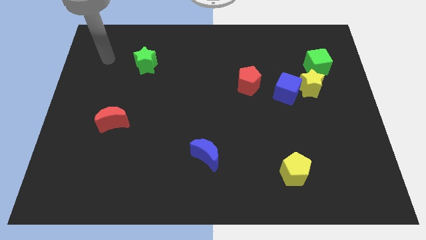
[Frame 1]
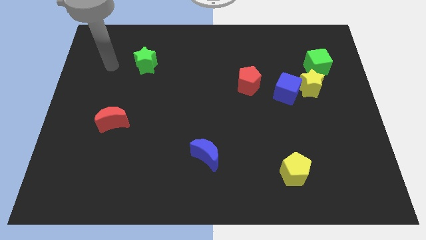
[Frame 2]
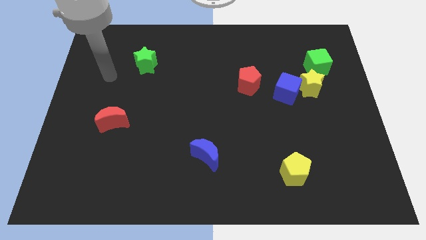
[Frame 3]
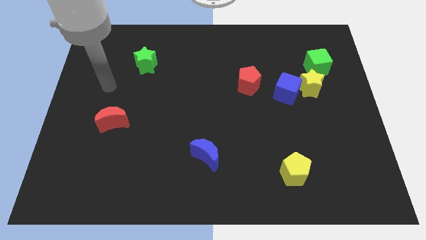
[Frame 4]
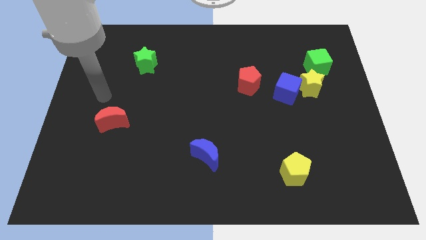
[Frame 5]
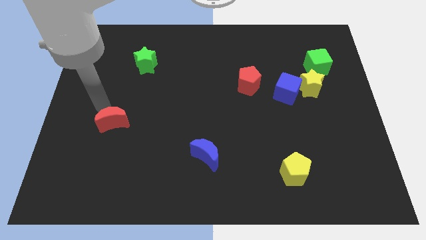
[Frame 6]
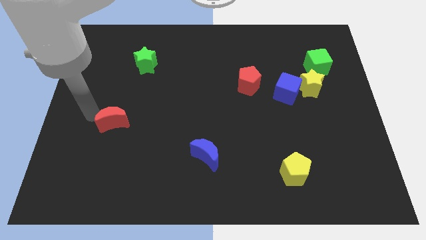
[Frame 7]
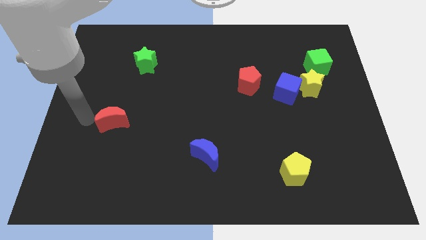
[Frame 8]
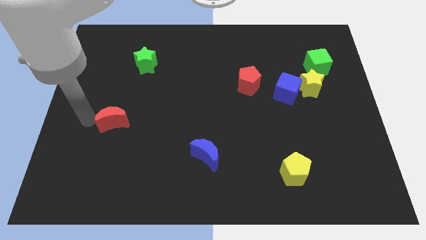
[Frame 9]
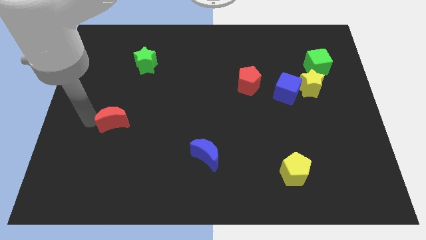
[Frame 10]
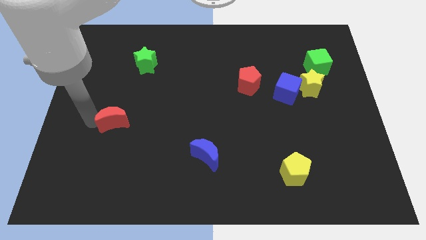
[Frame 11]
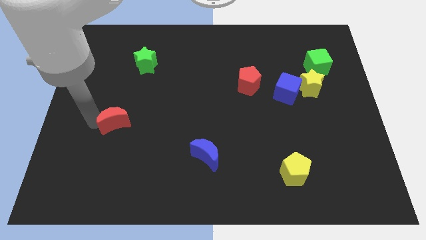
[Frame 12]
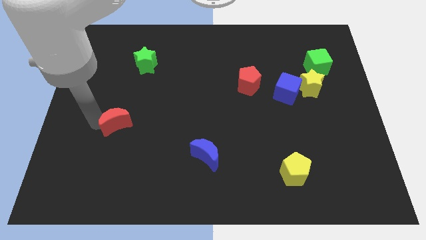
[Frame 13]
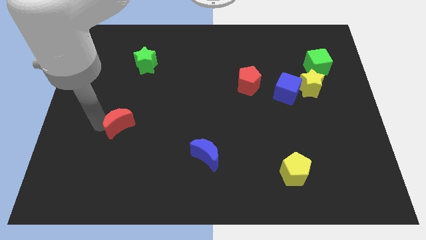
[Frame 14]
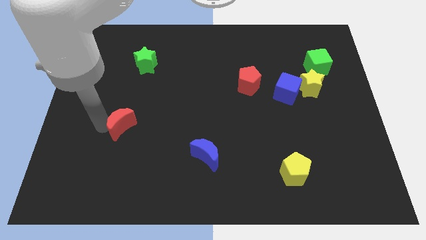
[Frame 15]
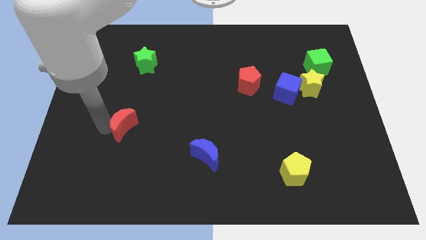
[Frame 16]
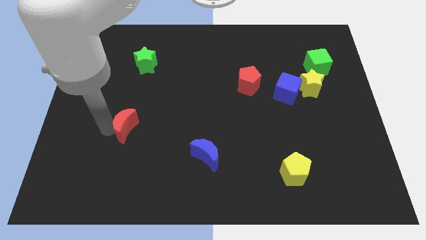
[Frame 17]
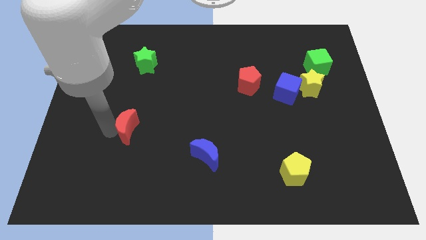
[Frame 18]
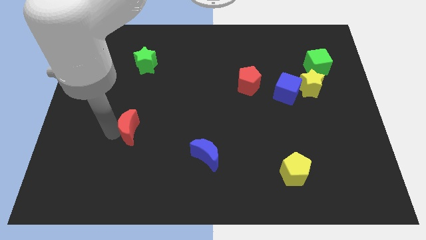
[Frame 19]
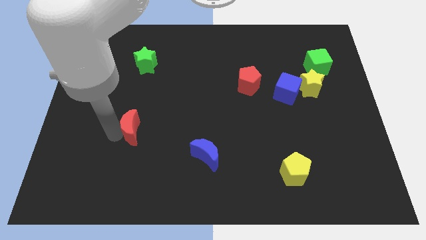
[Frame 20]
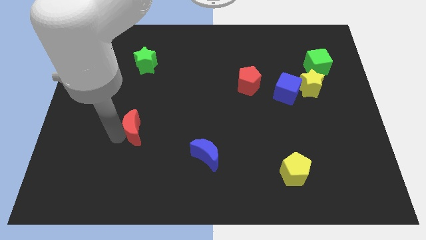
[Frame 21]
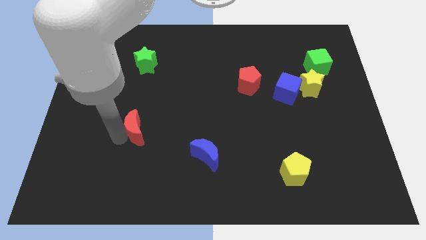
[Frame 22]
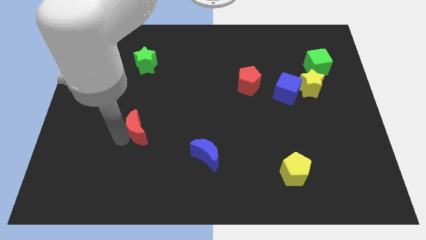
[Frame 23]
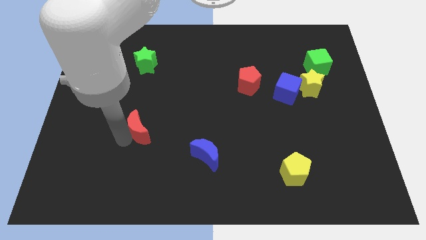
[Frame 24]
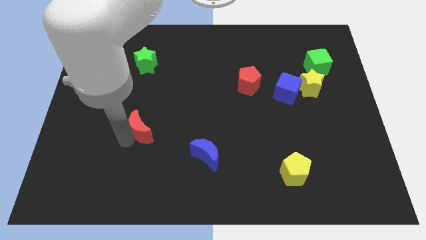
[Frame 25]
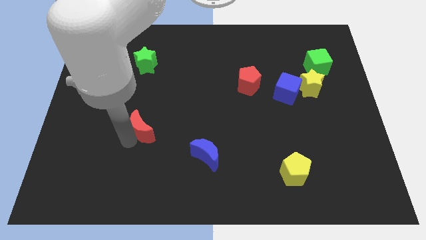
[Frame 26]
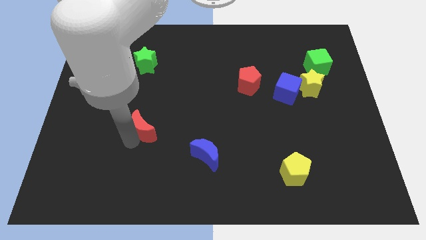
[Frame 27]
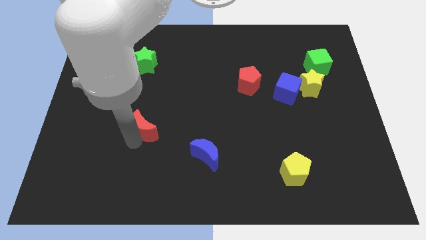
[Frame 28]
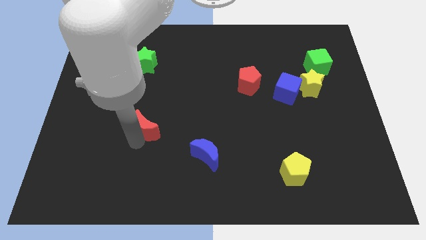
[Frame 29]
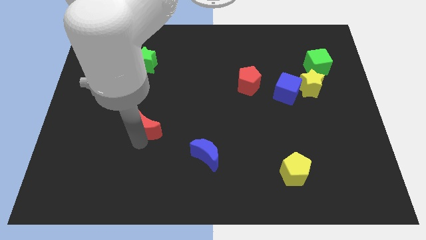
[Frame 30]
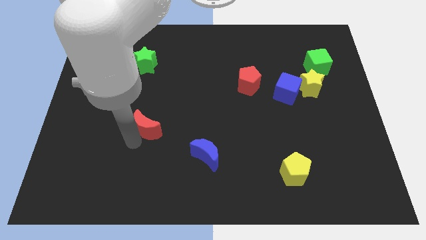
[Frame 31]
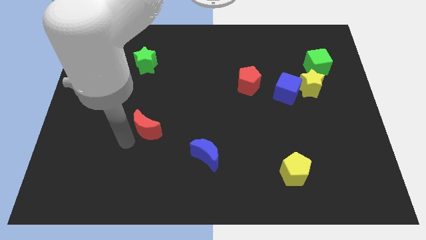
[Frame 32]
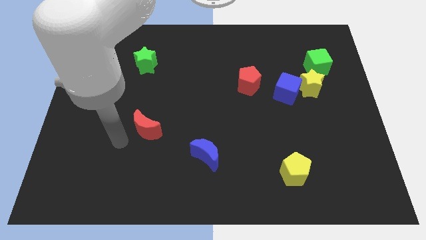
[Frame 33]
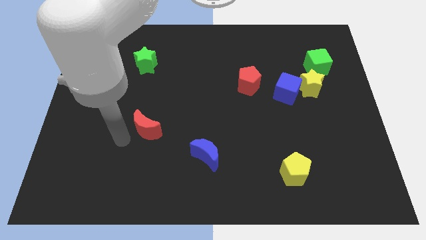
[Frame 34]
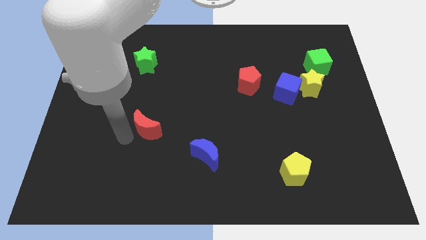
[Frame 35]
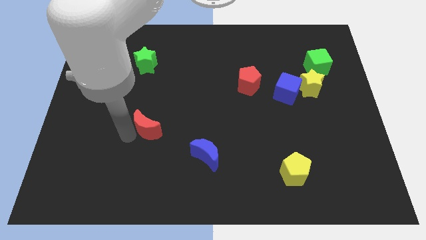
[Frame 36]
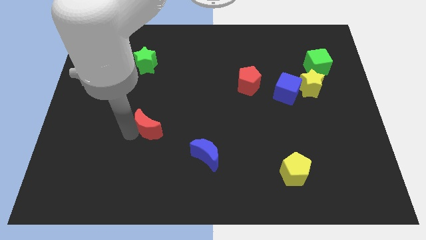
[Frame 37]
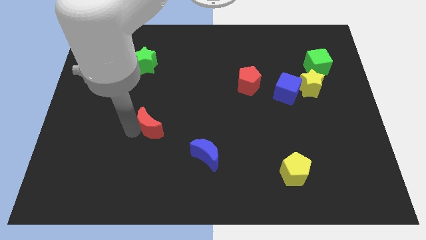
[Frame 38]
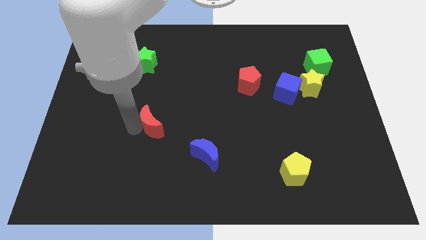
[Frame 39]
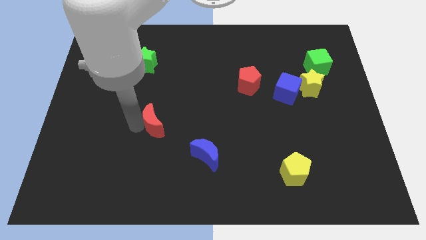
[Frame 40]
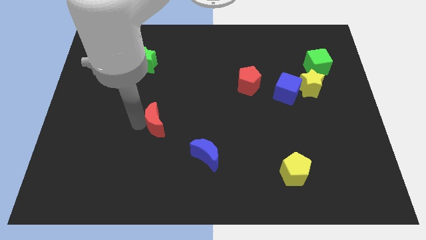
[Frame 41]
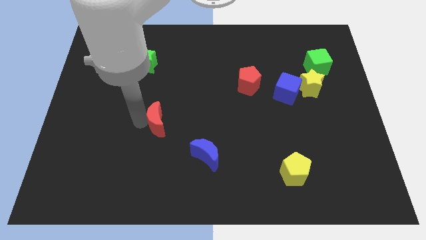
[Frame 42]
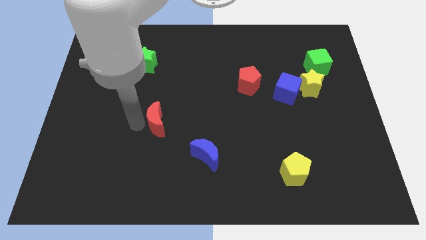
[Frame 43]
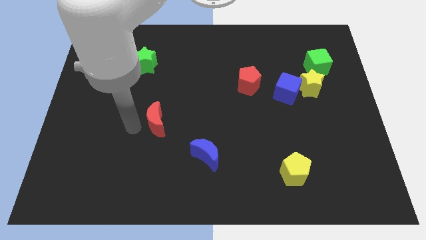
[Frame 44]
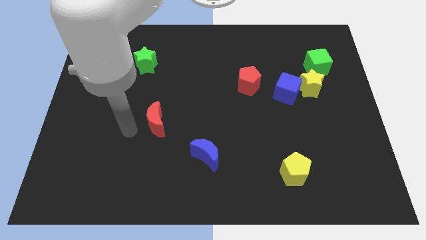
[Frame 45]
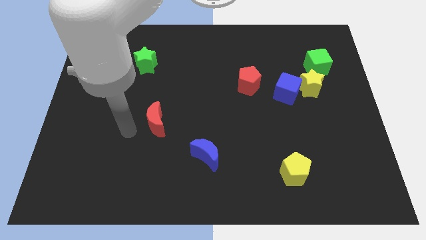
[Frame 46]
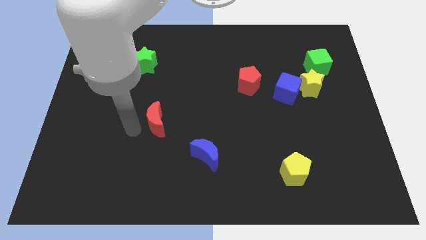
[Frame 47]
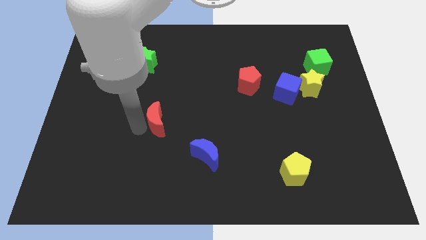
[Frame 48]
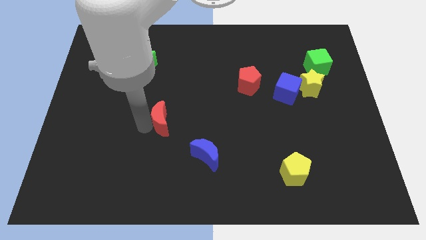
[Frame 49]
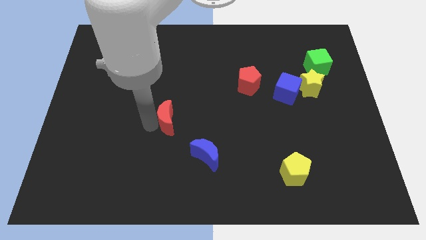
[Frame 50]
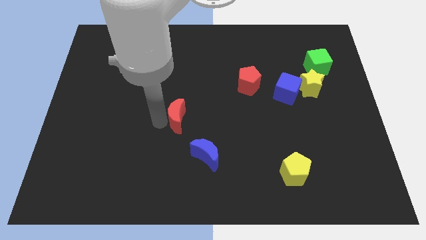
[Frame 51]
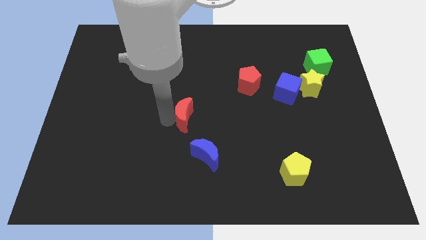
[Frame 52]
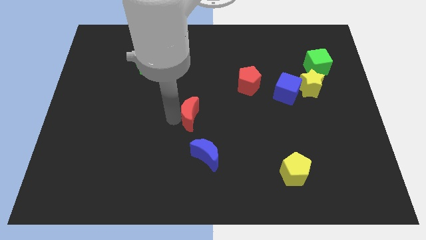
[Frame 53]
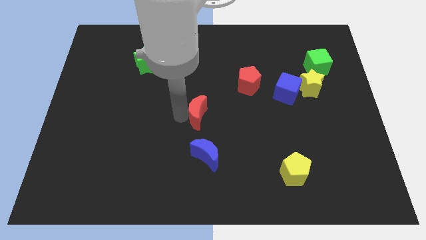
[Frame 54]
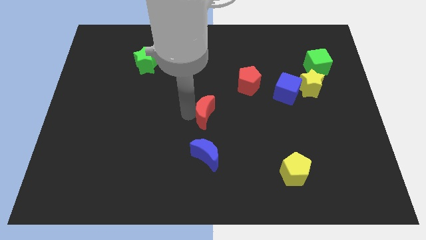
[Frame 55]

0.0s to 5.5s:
slide the red moon right

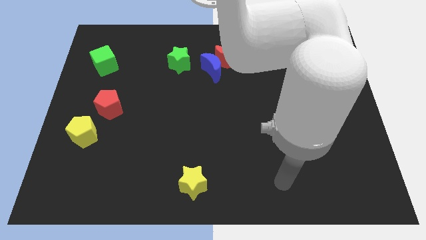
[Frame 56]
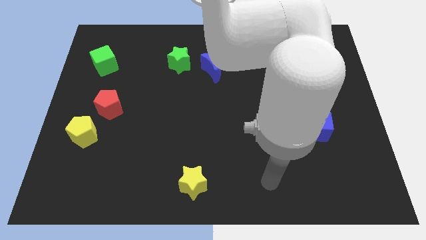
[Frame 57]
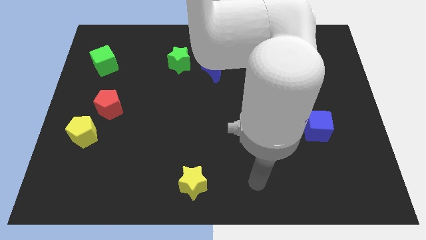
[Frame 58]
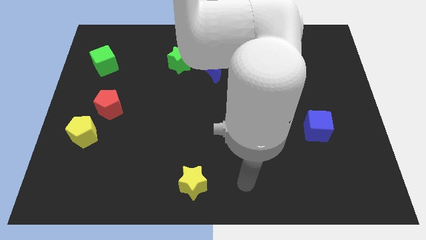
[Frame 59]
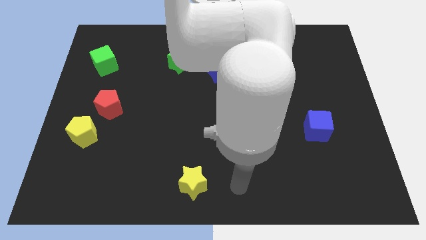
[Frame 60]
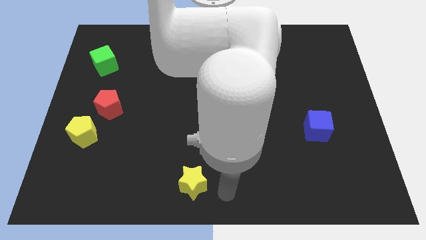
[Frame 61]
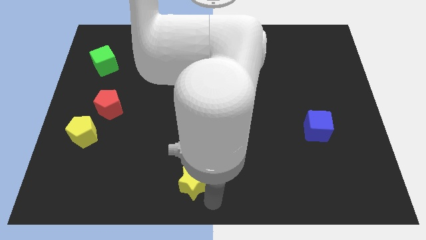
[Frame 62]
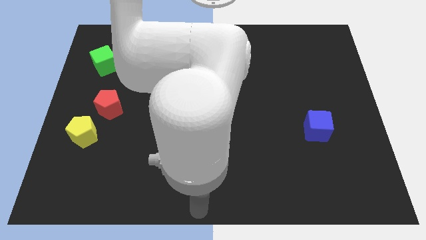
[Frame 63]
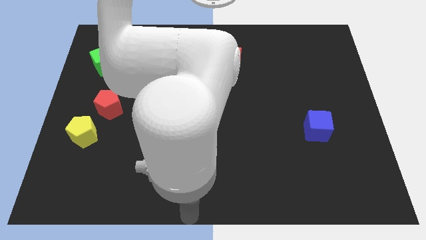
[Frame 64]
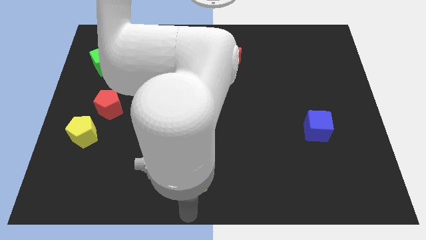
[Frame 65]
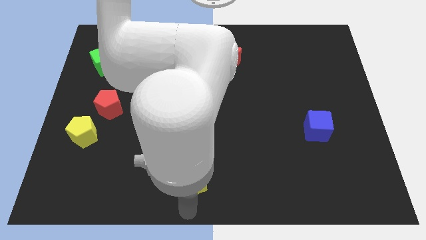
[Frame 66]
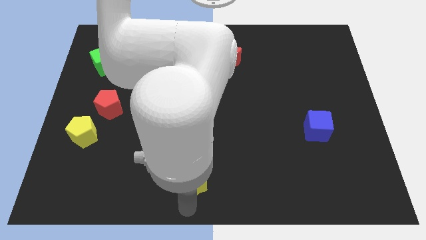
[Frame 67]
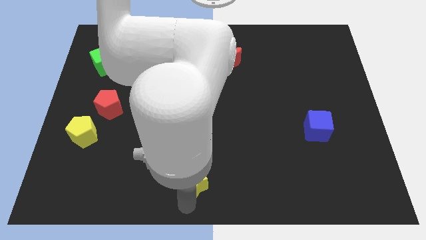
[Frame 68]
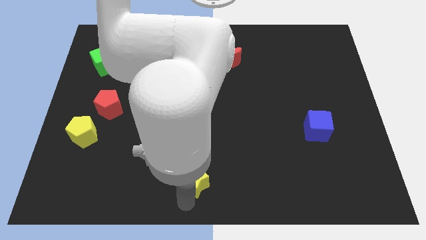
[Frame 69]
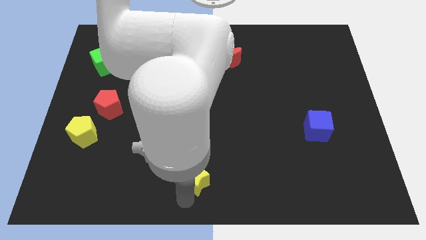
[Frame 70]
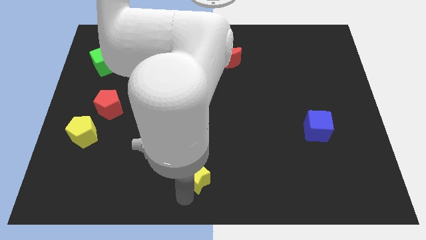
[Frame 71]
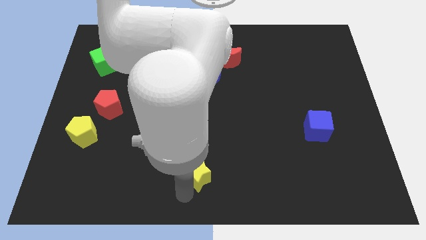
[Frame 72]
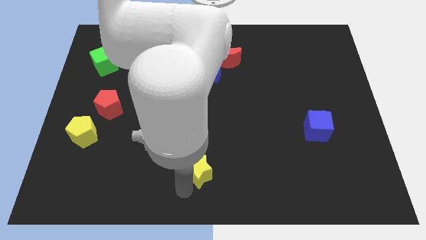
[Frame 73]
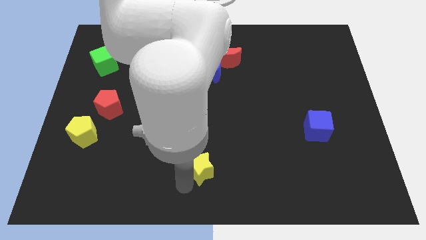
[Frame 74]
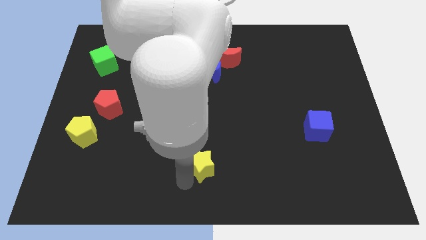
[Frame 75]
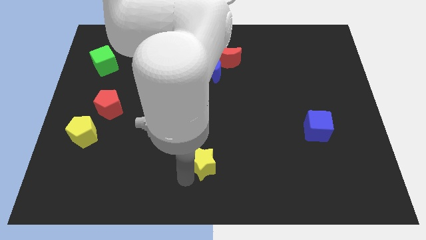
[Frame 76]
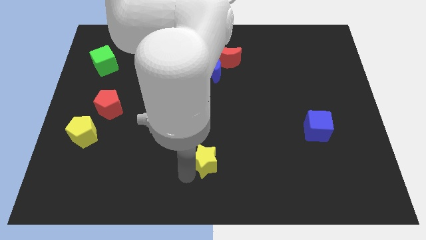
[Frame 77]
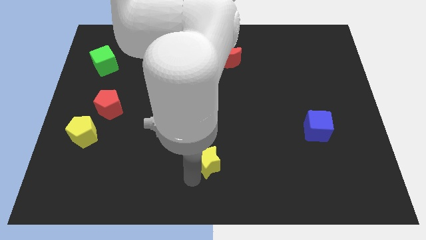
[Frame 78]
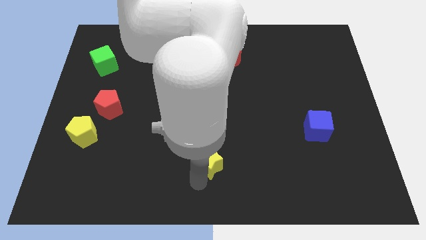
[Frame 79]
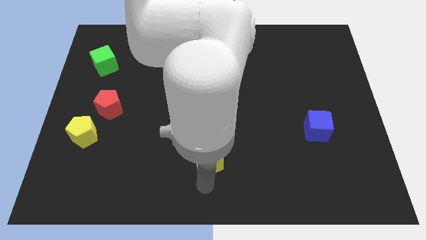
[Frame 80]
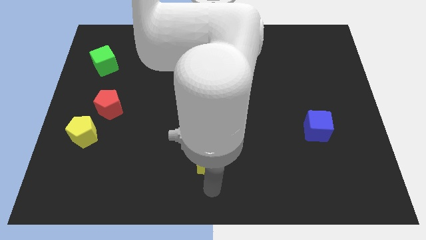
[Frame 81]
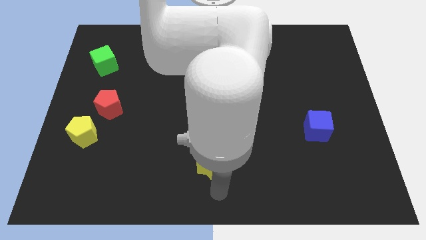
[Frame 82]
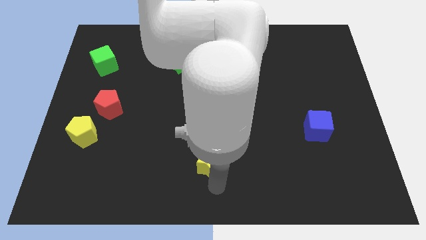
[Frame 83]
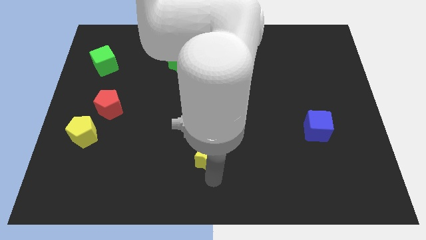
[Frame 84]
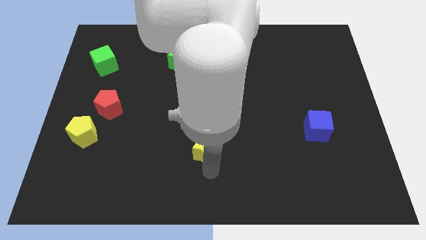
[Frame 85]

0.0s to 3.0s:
push the yellow star up a bit
